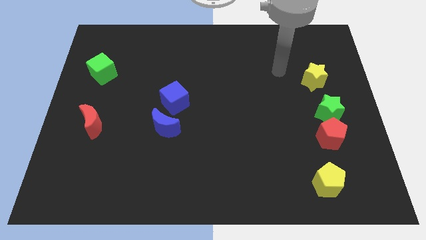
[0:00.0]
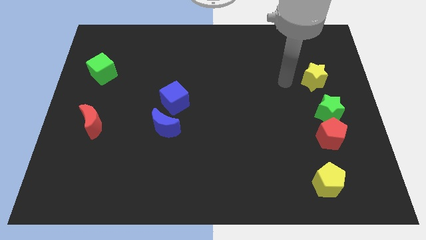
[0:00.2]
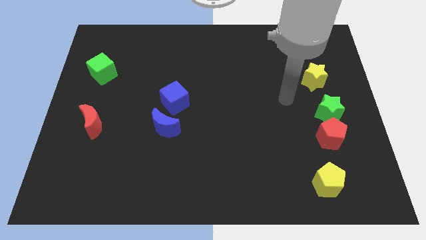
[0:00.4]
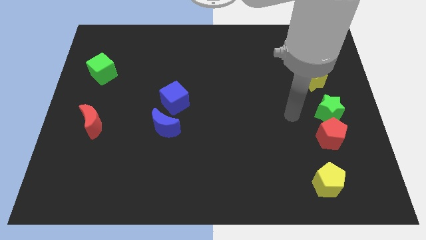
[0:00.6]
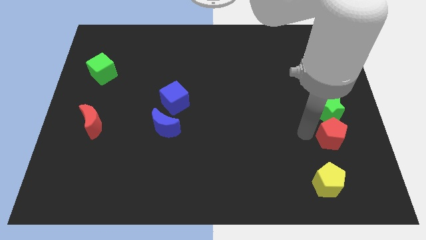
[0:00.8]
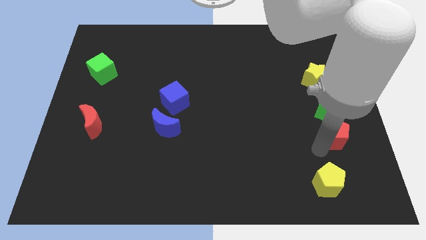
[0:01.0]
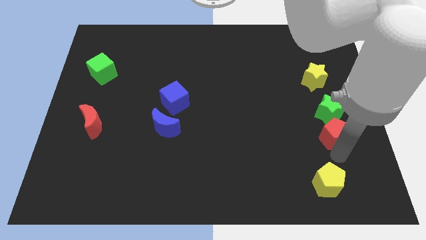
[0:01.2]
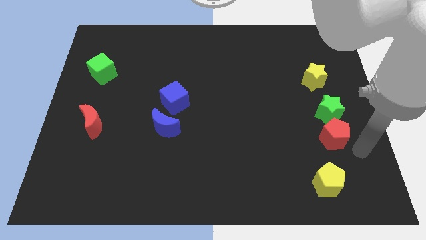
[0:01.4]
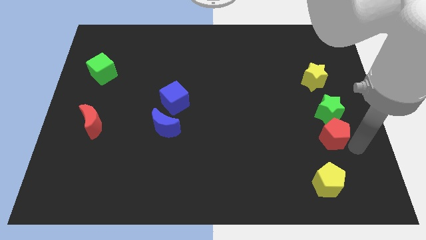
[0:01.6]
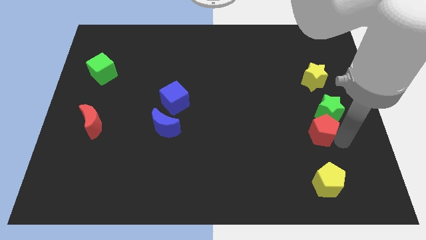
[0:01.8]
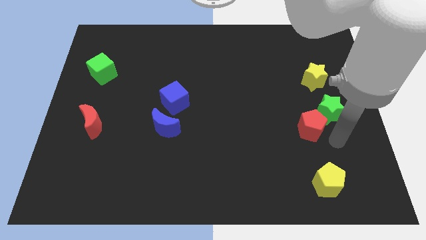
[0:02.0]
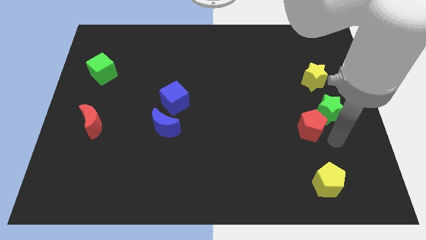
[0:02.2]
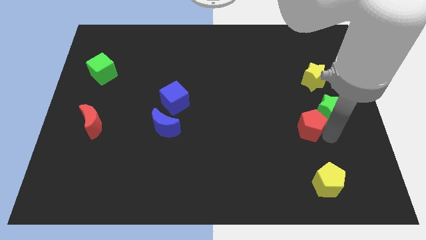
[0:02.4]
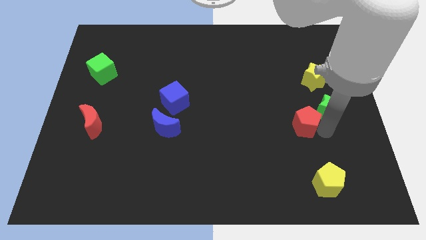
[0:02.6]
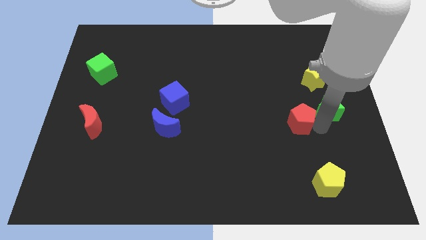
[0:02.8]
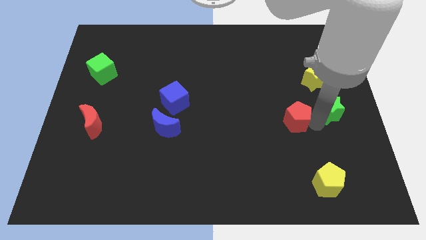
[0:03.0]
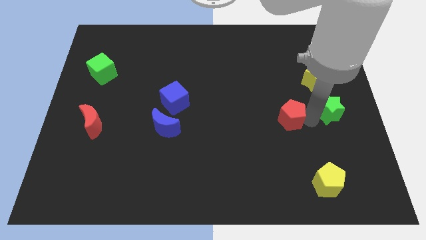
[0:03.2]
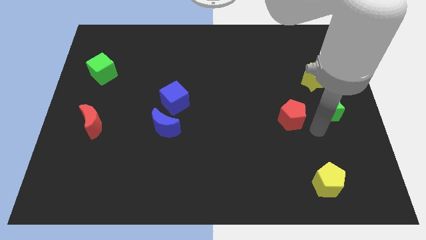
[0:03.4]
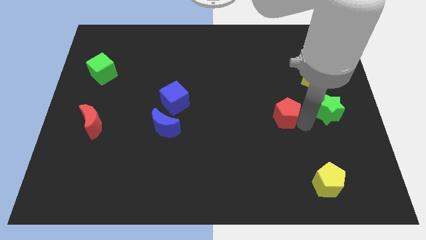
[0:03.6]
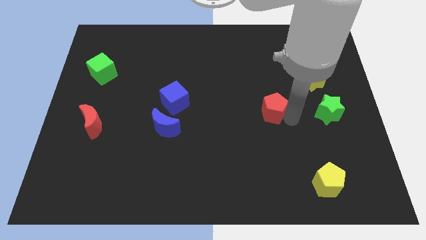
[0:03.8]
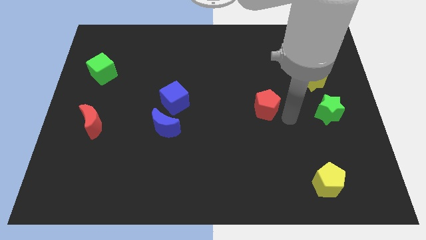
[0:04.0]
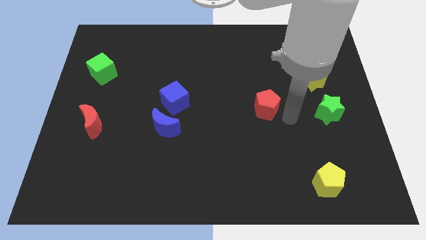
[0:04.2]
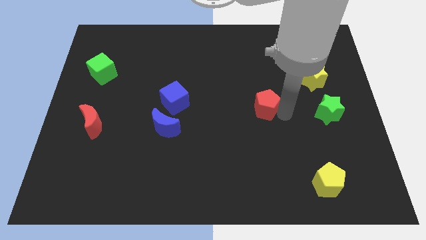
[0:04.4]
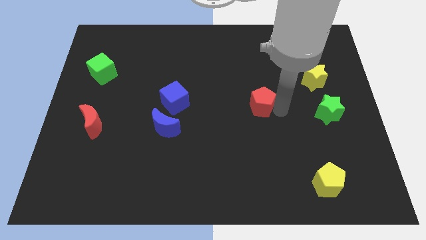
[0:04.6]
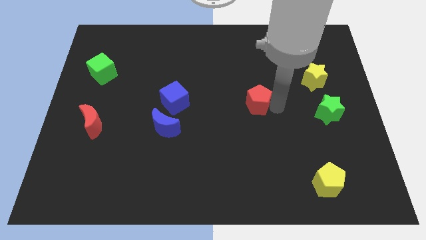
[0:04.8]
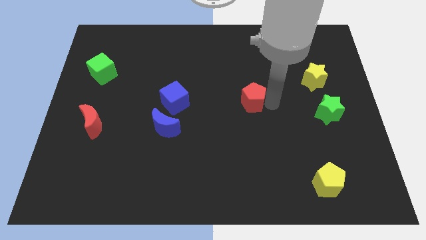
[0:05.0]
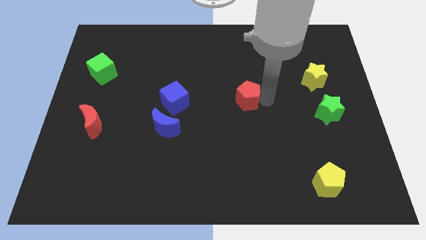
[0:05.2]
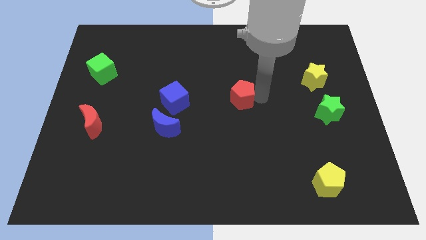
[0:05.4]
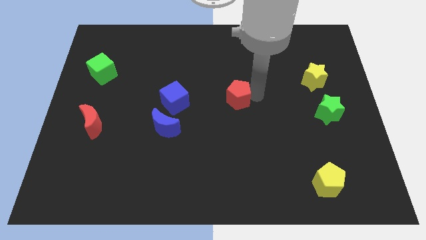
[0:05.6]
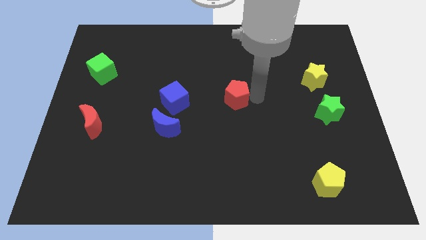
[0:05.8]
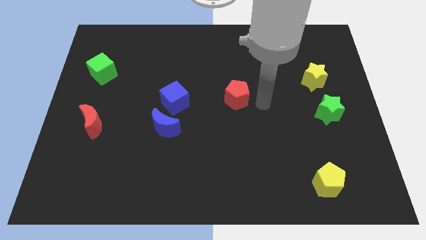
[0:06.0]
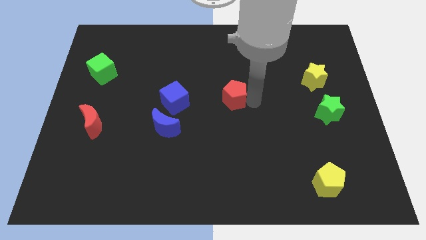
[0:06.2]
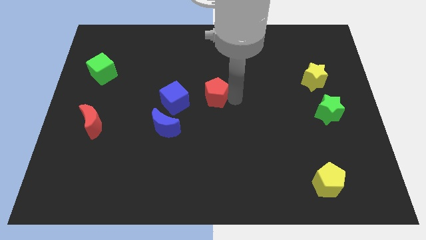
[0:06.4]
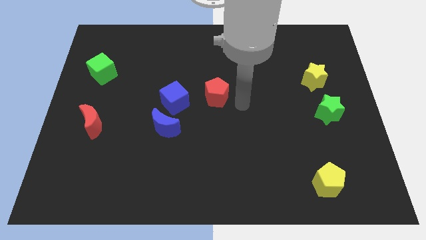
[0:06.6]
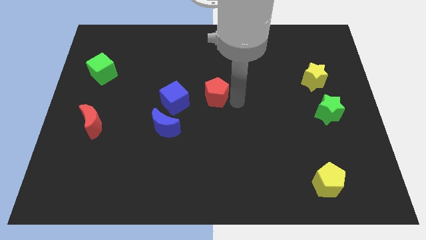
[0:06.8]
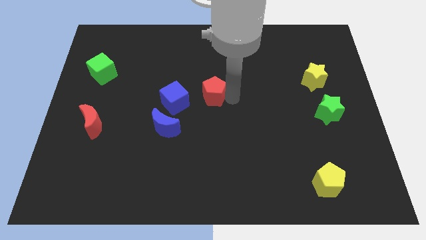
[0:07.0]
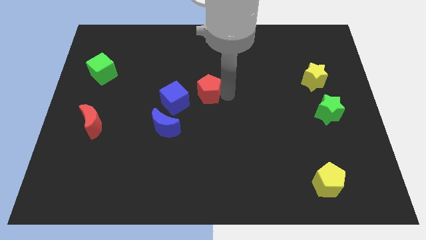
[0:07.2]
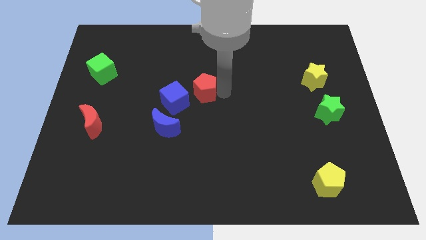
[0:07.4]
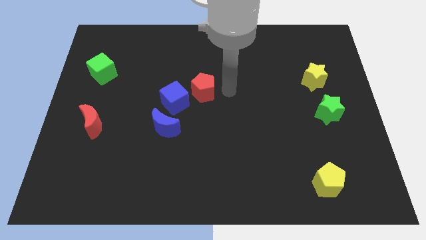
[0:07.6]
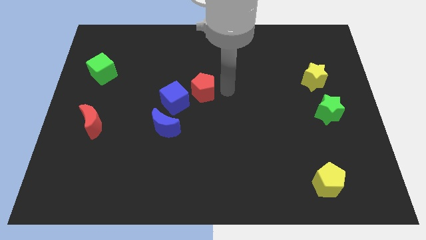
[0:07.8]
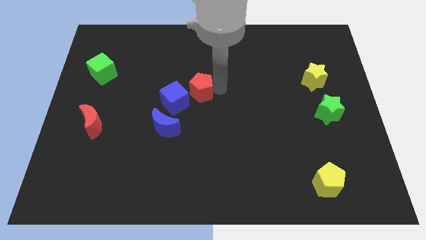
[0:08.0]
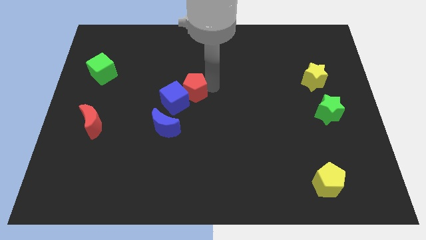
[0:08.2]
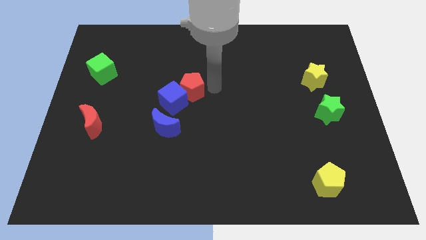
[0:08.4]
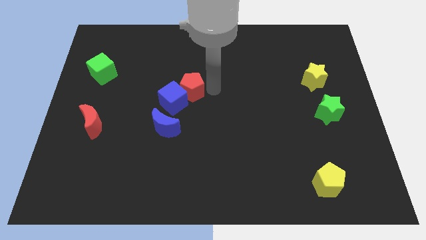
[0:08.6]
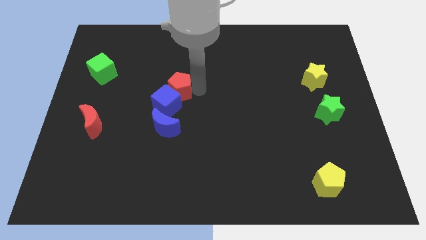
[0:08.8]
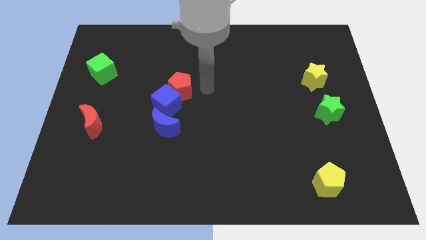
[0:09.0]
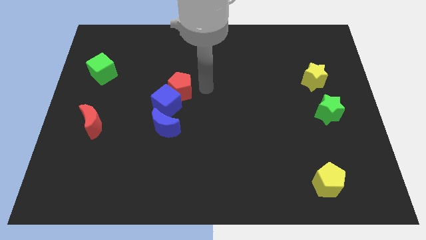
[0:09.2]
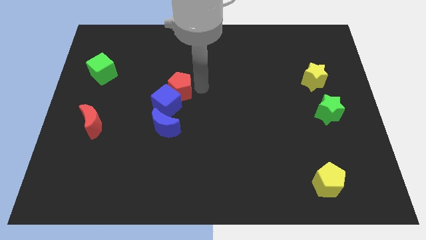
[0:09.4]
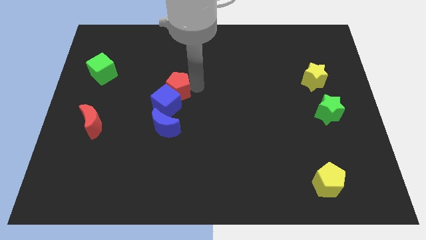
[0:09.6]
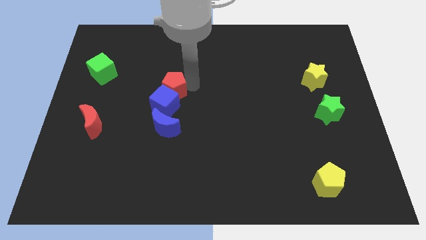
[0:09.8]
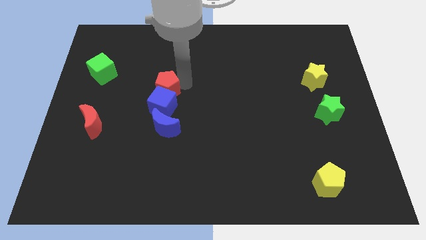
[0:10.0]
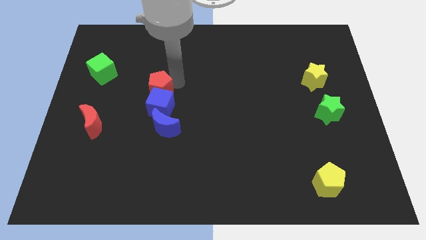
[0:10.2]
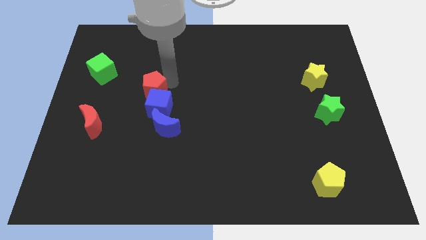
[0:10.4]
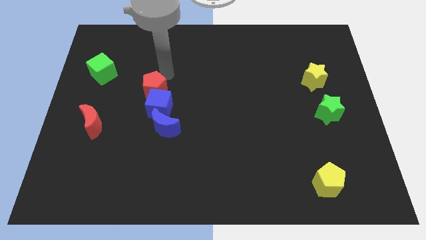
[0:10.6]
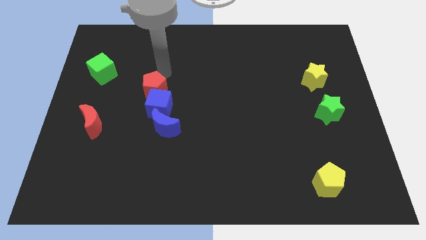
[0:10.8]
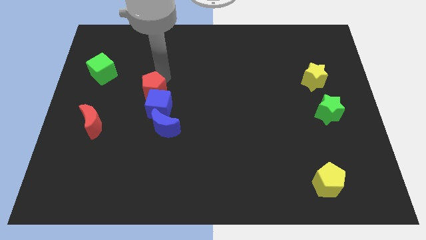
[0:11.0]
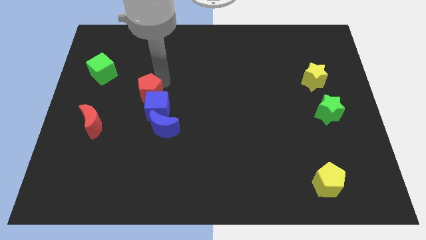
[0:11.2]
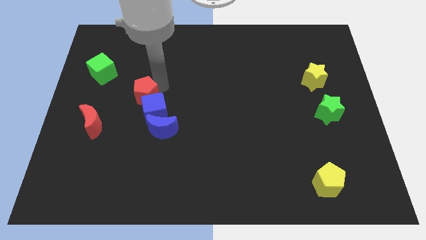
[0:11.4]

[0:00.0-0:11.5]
slide the red pentagon diagonally up and to the left of the blue moon

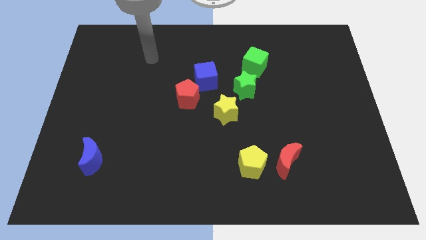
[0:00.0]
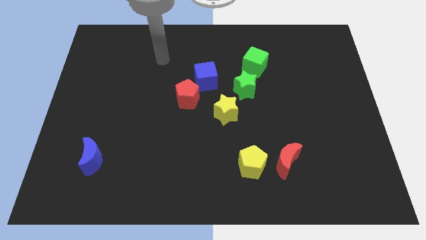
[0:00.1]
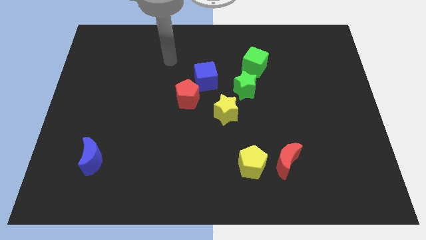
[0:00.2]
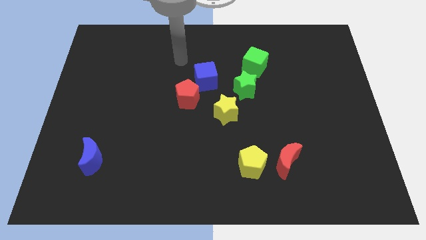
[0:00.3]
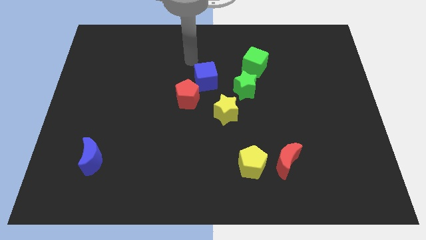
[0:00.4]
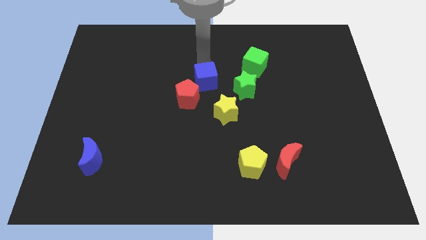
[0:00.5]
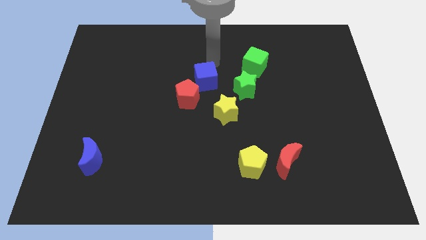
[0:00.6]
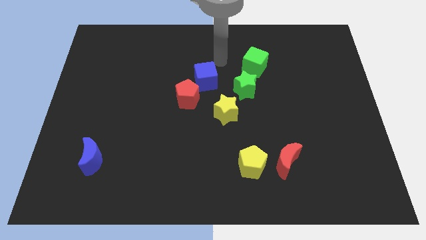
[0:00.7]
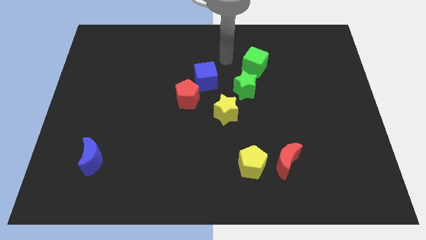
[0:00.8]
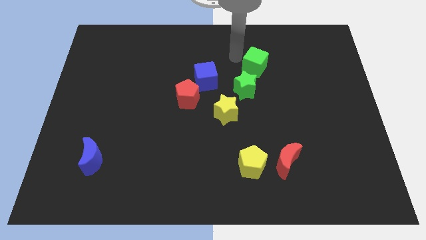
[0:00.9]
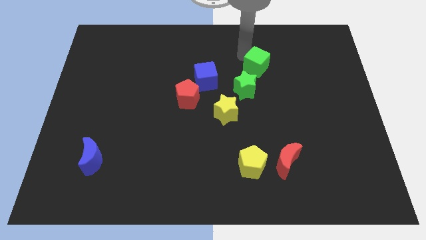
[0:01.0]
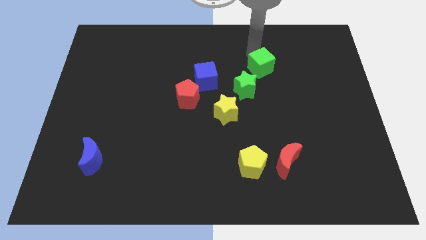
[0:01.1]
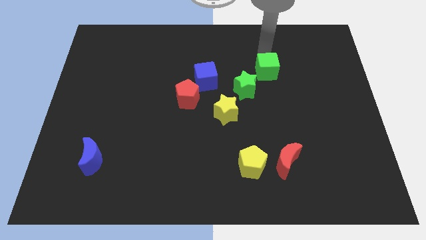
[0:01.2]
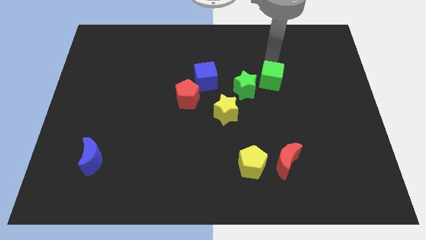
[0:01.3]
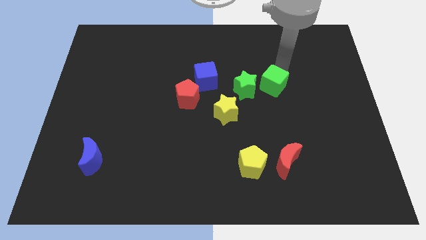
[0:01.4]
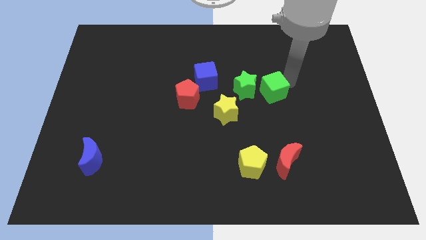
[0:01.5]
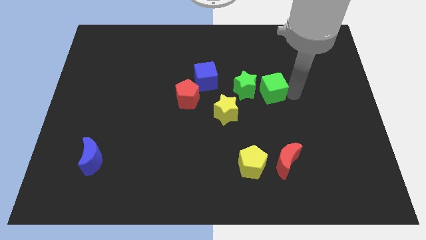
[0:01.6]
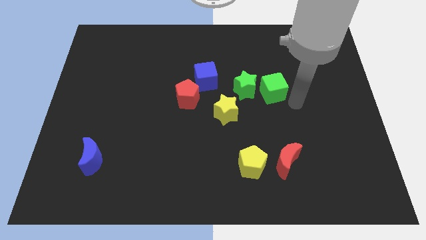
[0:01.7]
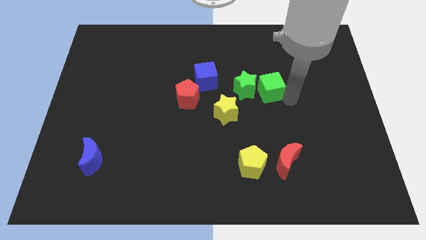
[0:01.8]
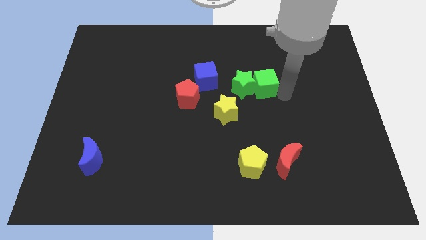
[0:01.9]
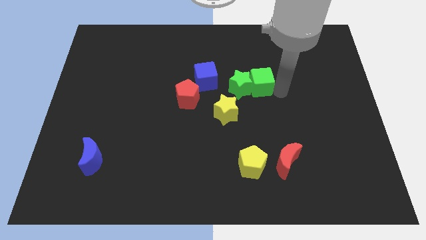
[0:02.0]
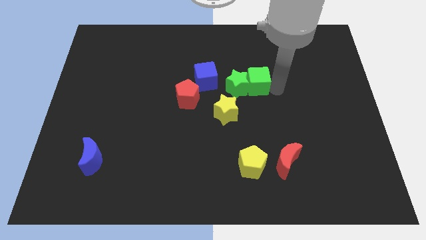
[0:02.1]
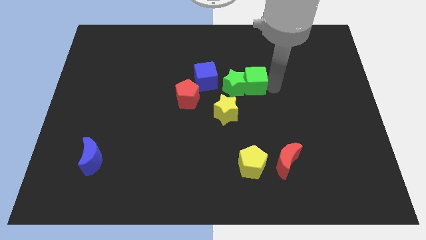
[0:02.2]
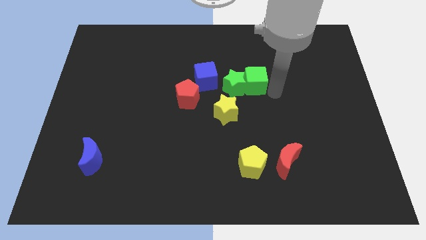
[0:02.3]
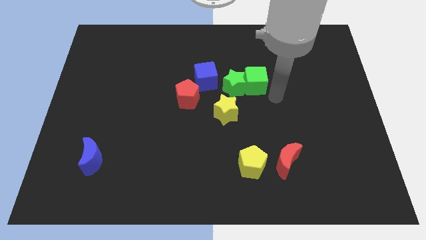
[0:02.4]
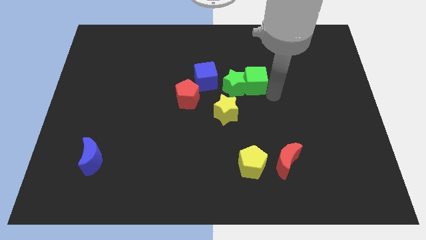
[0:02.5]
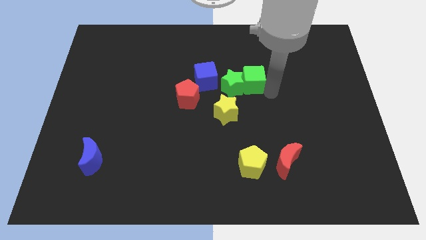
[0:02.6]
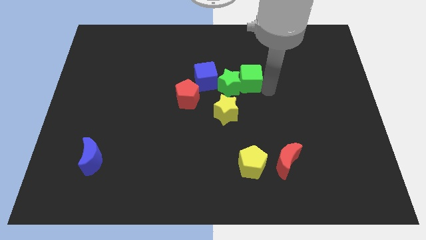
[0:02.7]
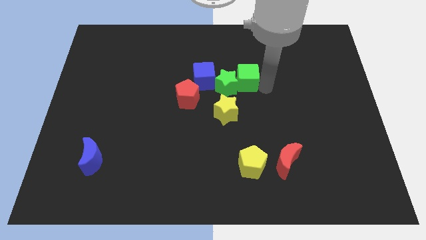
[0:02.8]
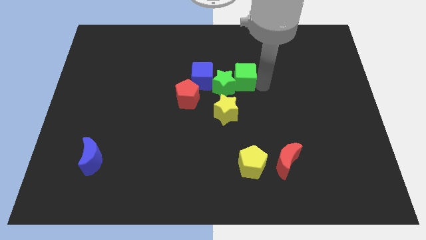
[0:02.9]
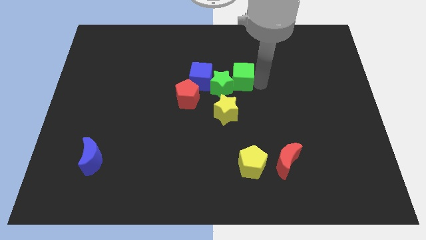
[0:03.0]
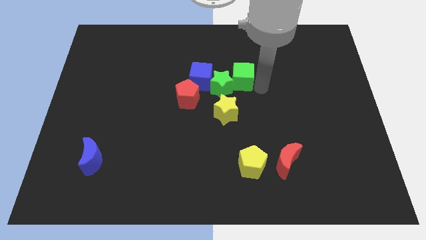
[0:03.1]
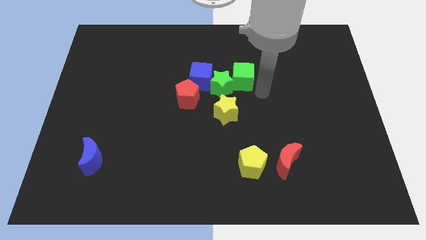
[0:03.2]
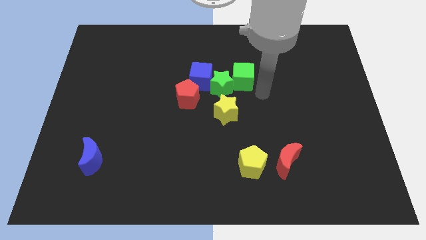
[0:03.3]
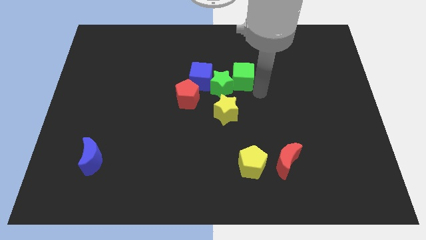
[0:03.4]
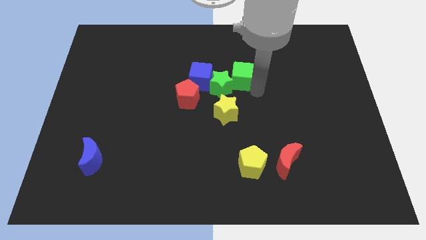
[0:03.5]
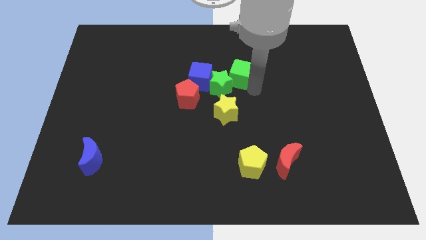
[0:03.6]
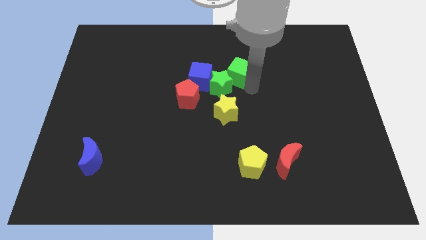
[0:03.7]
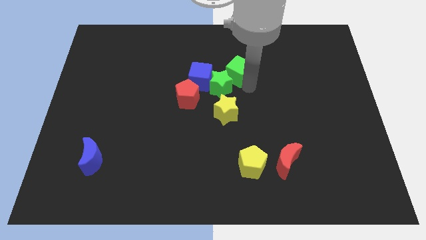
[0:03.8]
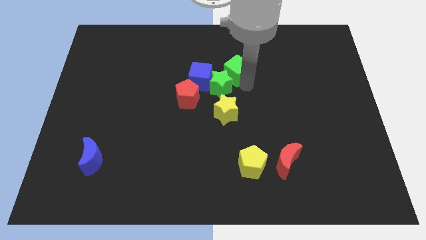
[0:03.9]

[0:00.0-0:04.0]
move the green cube diagonally up and to the right of the blue cube
